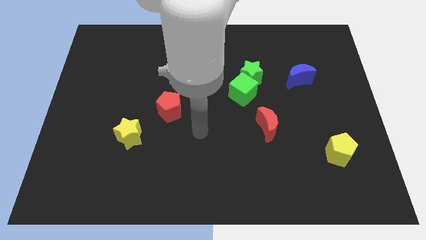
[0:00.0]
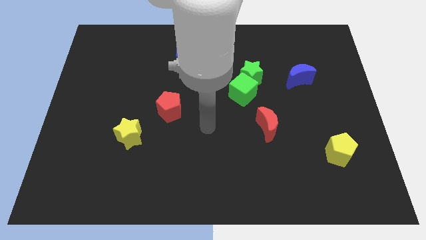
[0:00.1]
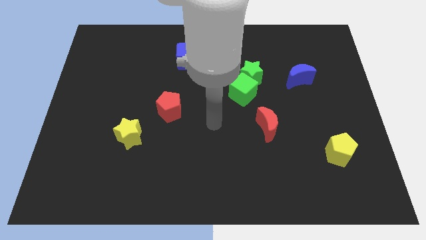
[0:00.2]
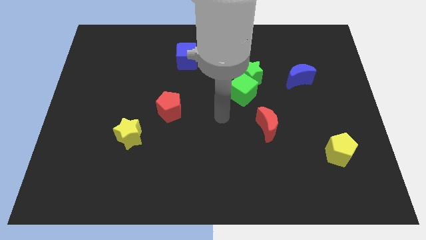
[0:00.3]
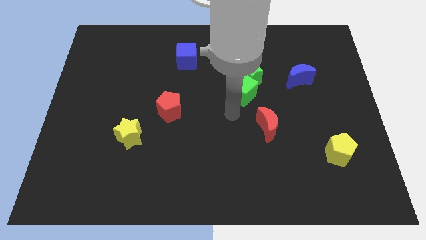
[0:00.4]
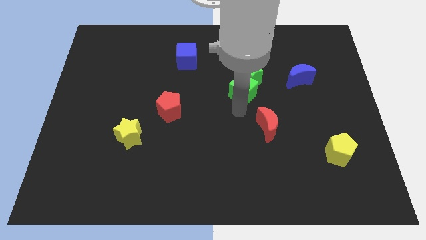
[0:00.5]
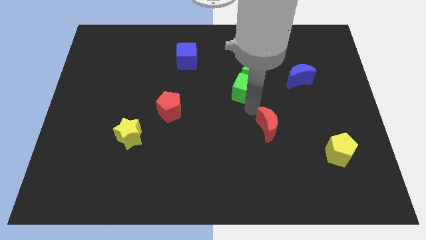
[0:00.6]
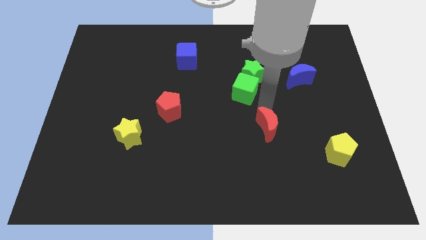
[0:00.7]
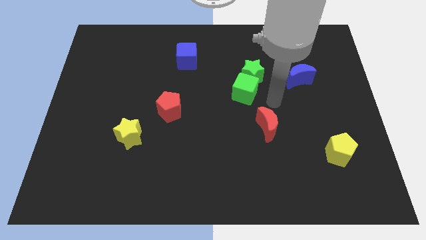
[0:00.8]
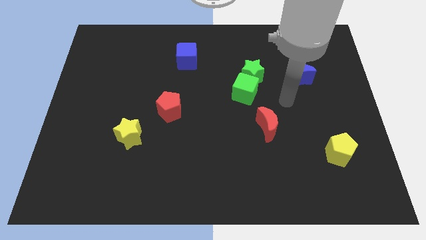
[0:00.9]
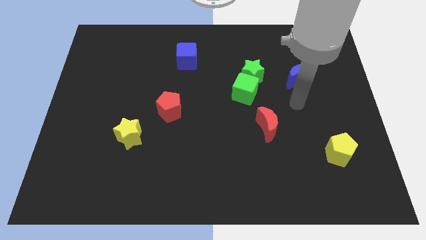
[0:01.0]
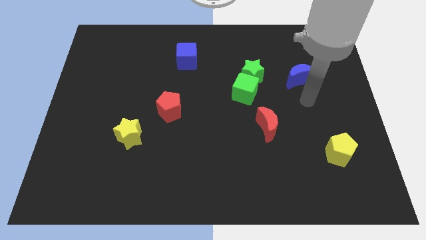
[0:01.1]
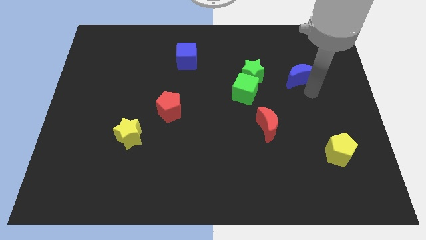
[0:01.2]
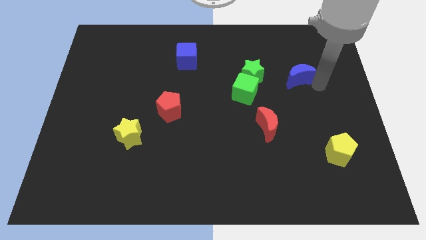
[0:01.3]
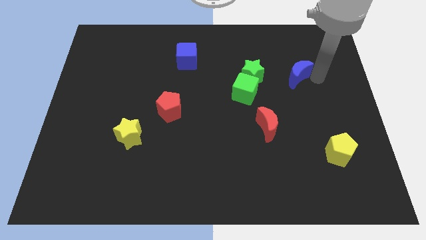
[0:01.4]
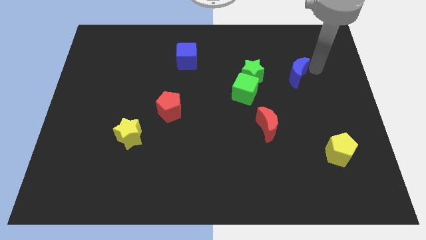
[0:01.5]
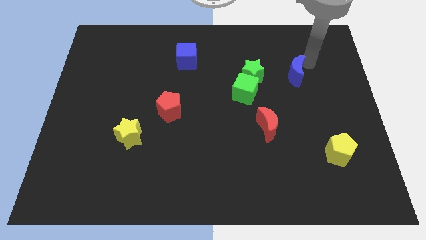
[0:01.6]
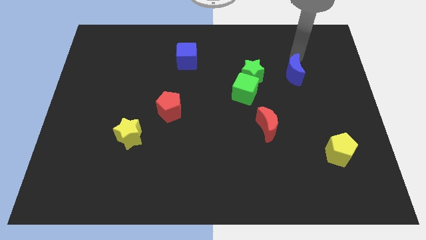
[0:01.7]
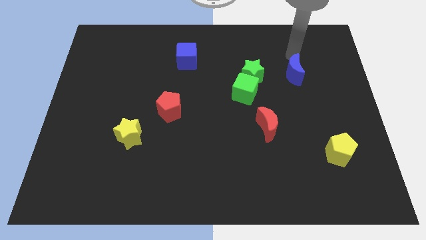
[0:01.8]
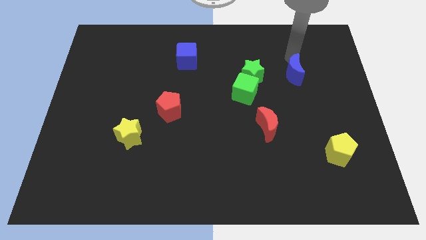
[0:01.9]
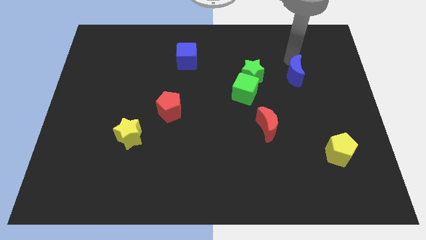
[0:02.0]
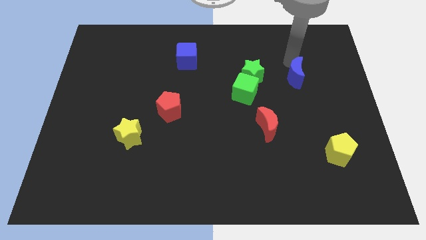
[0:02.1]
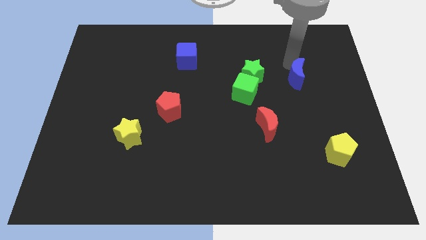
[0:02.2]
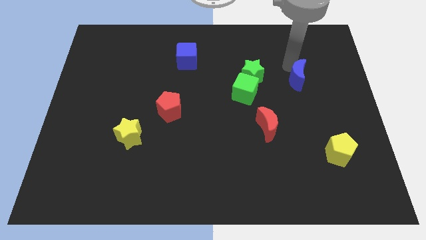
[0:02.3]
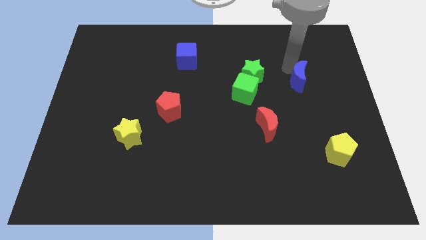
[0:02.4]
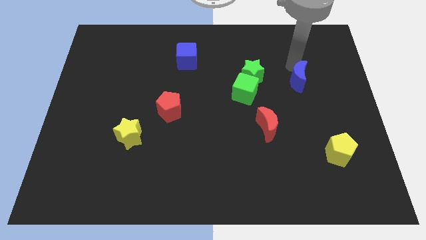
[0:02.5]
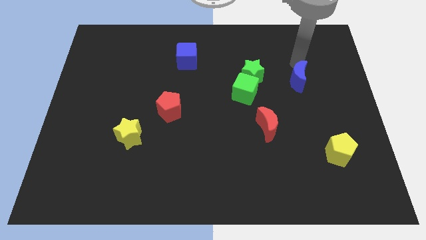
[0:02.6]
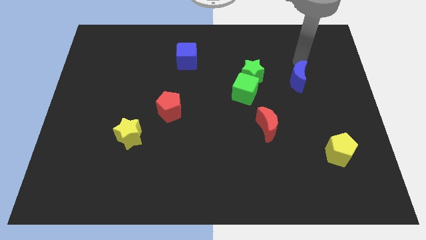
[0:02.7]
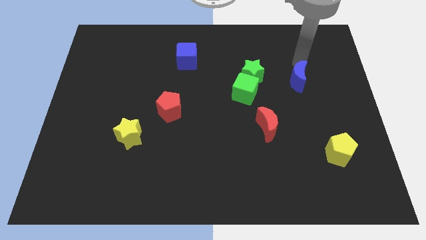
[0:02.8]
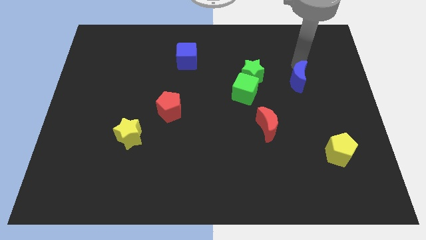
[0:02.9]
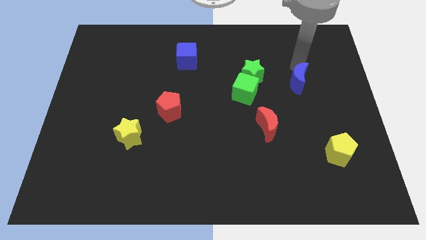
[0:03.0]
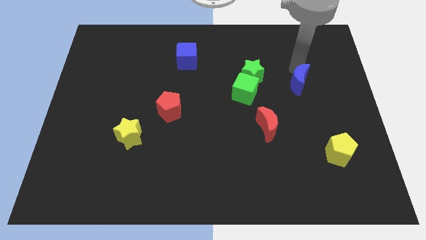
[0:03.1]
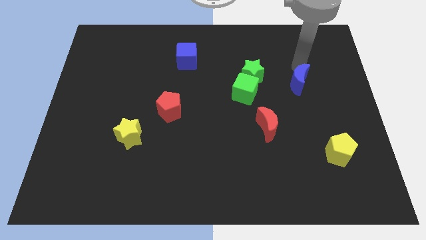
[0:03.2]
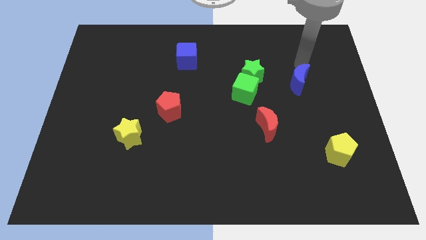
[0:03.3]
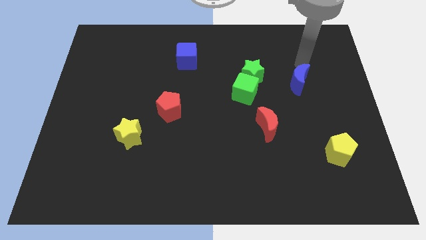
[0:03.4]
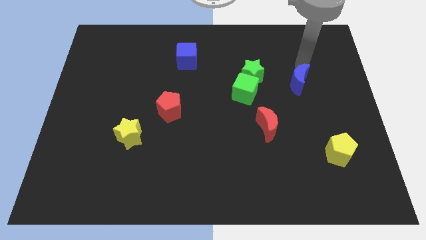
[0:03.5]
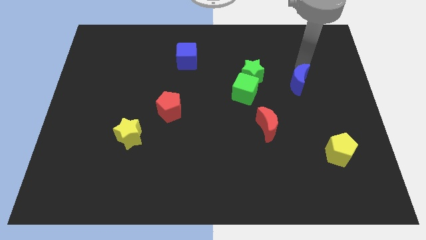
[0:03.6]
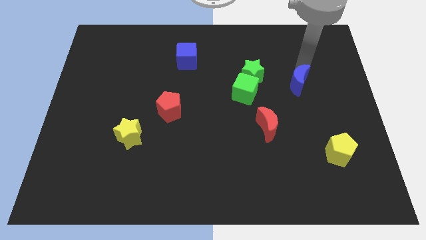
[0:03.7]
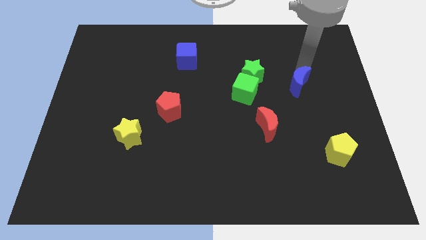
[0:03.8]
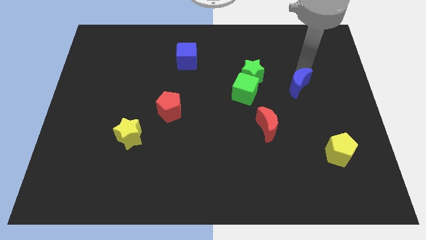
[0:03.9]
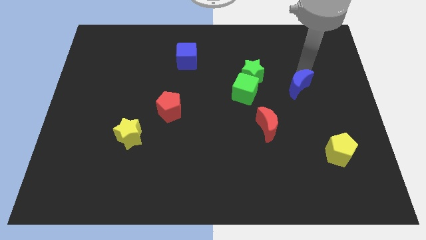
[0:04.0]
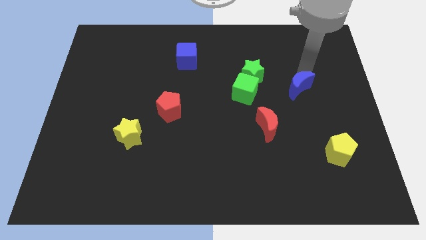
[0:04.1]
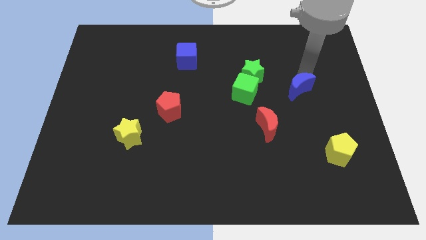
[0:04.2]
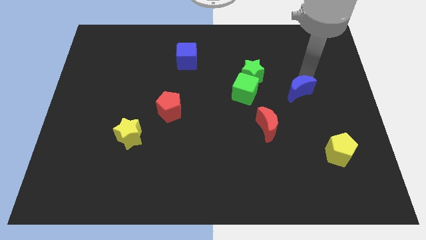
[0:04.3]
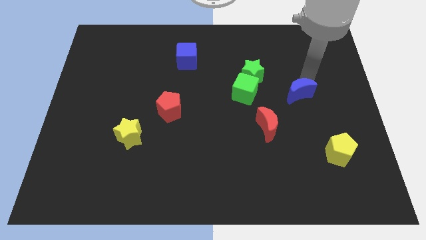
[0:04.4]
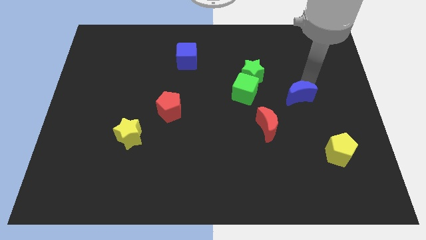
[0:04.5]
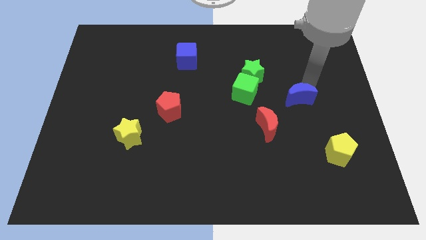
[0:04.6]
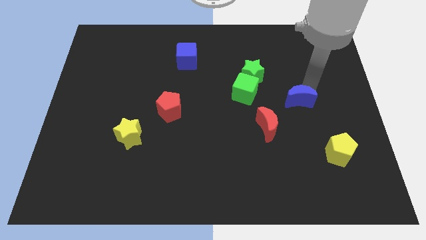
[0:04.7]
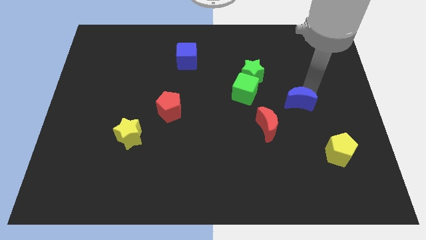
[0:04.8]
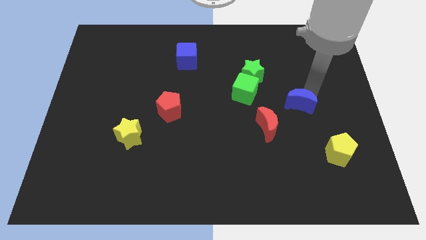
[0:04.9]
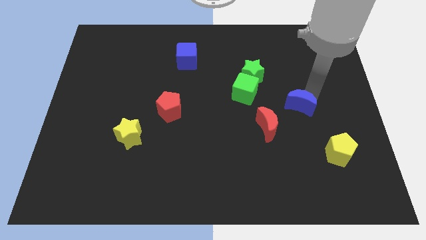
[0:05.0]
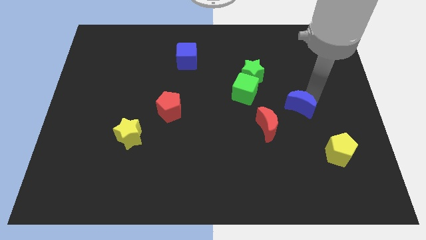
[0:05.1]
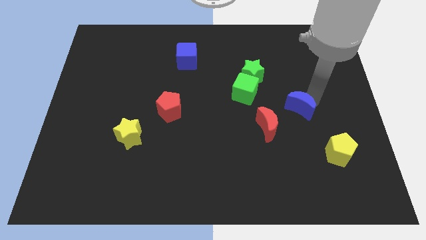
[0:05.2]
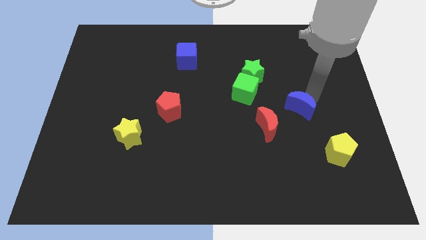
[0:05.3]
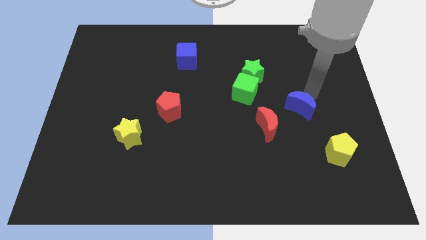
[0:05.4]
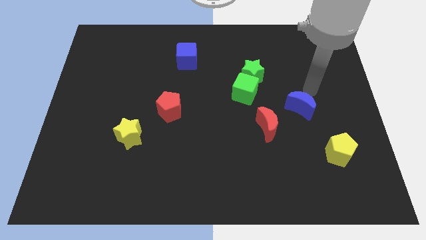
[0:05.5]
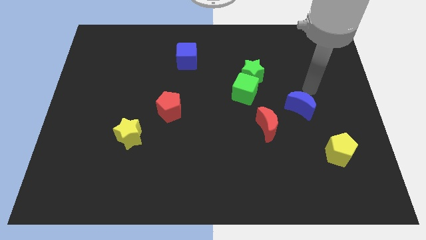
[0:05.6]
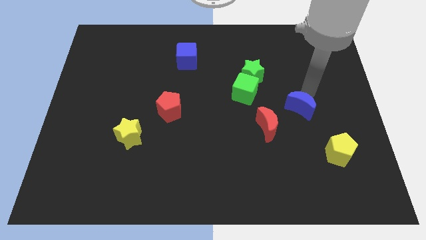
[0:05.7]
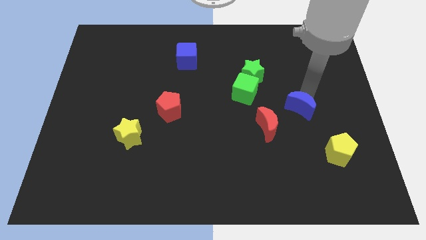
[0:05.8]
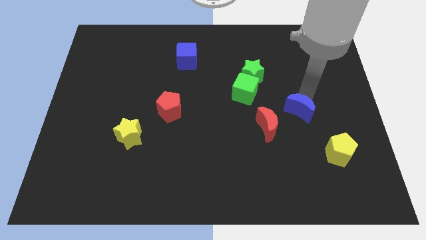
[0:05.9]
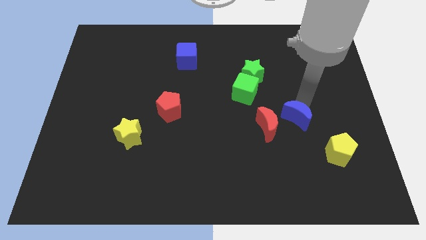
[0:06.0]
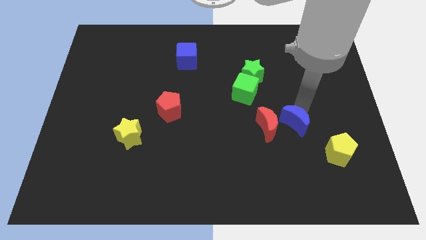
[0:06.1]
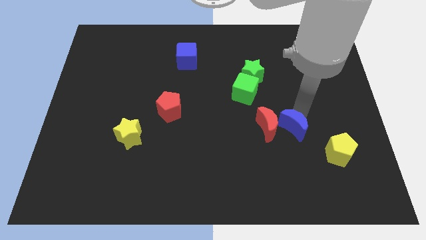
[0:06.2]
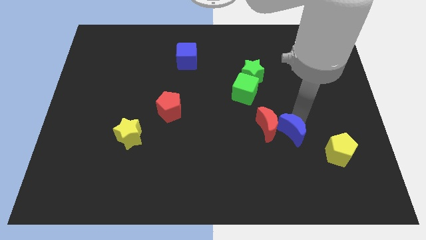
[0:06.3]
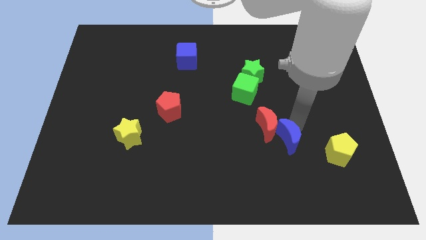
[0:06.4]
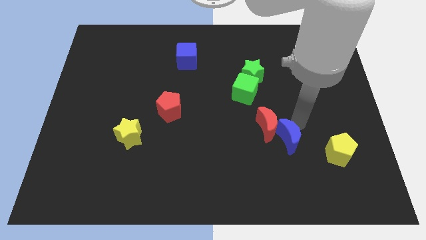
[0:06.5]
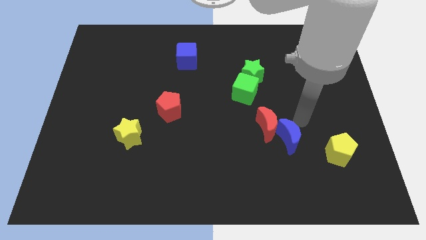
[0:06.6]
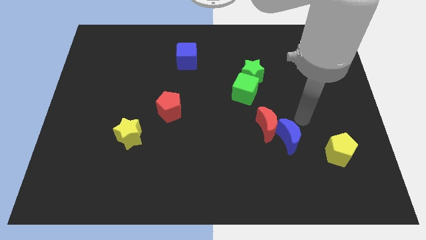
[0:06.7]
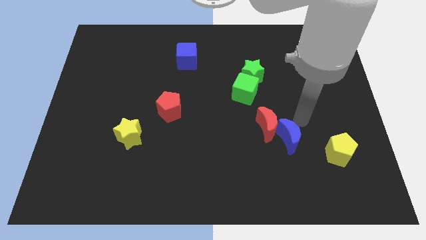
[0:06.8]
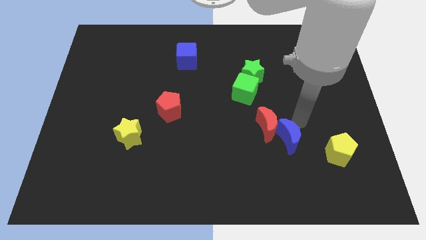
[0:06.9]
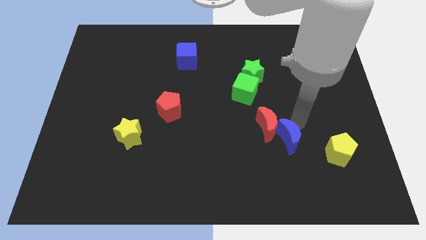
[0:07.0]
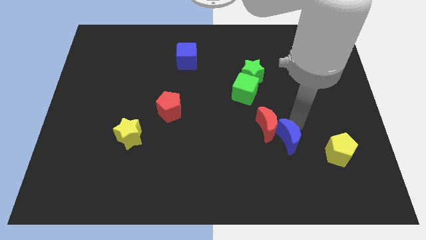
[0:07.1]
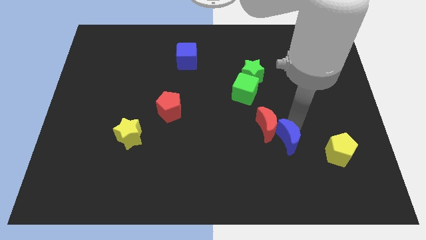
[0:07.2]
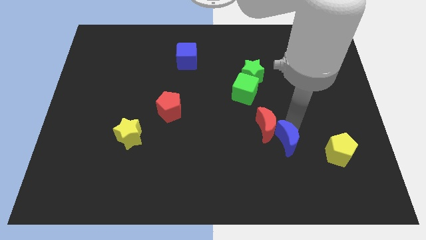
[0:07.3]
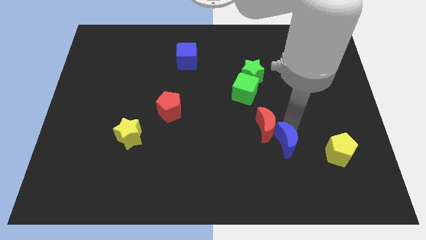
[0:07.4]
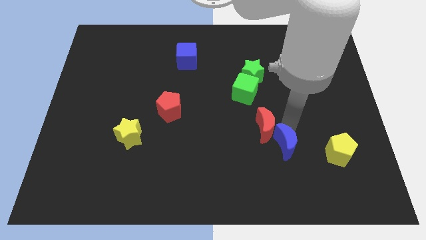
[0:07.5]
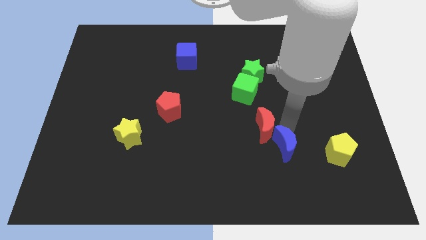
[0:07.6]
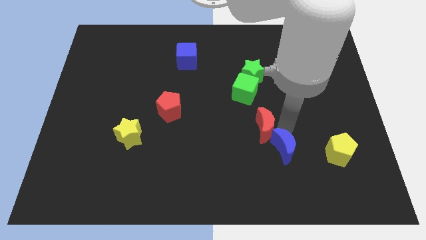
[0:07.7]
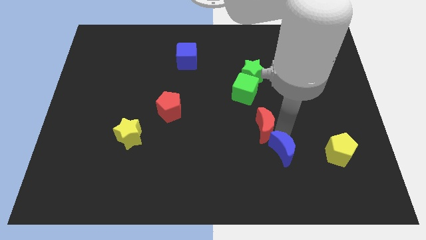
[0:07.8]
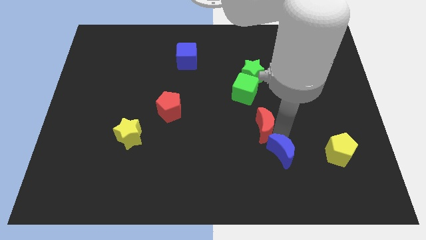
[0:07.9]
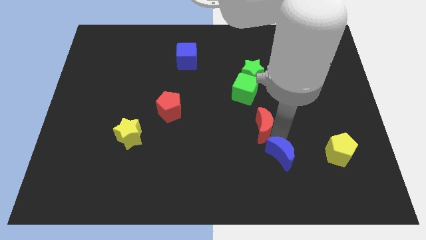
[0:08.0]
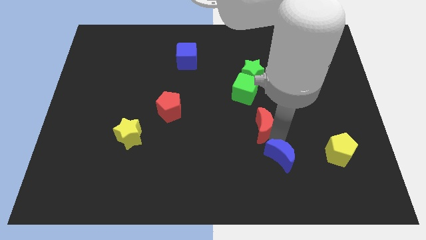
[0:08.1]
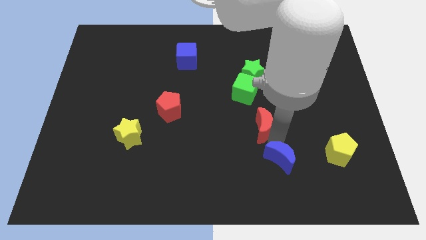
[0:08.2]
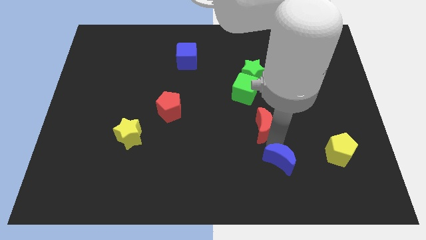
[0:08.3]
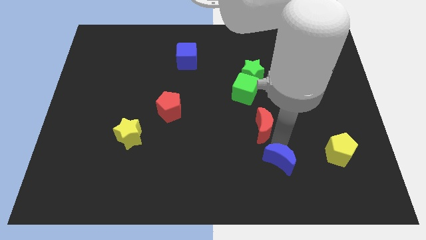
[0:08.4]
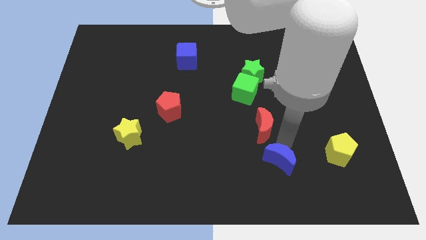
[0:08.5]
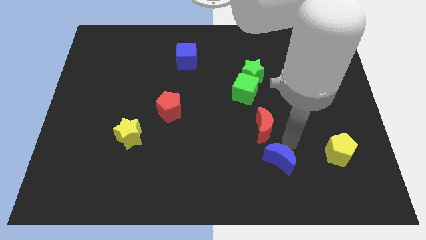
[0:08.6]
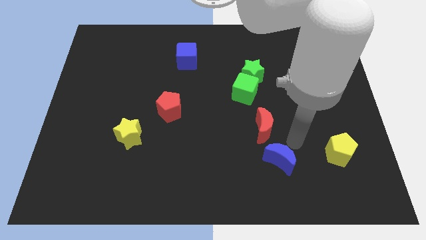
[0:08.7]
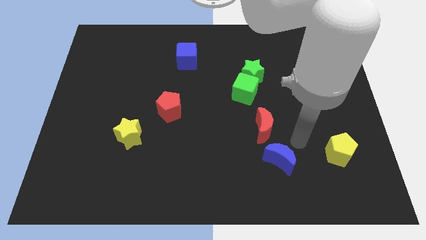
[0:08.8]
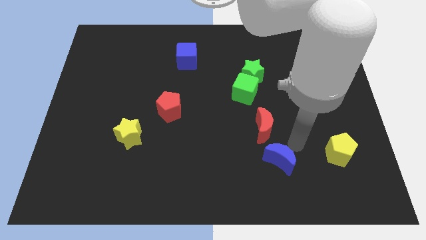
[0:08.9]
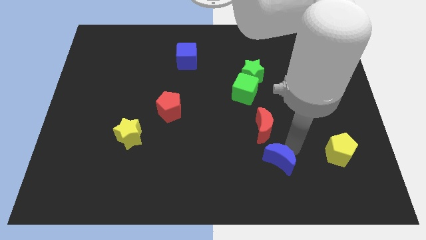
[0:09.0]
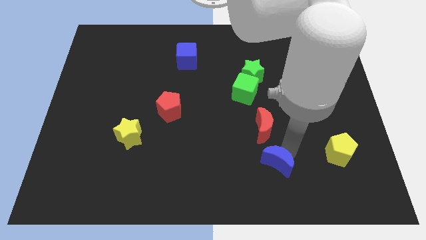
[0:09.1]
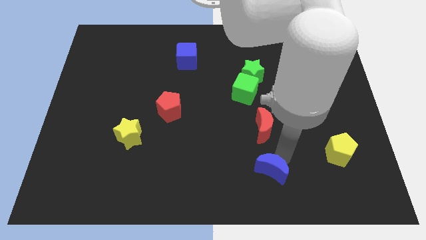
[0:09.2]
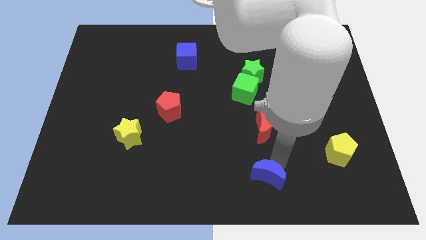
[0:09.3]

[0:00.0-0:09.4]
slide the blue moon to the bottom side
